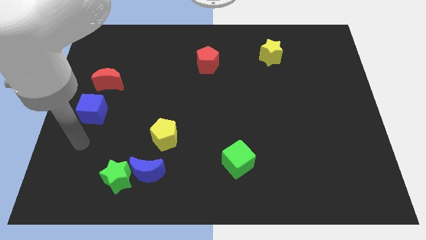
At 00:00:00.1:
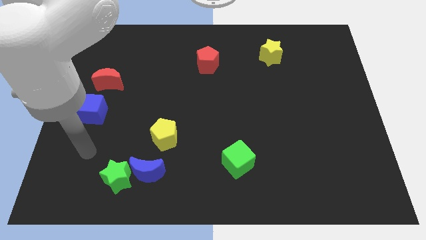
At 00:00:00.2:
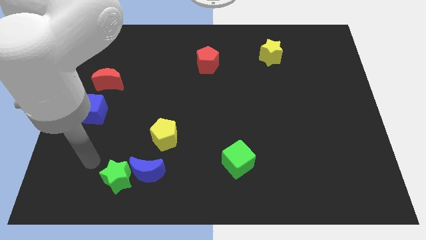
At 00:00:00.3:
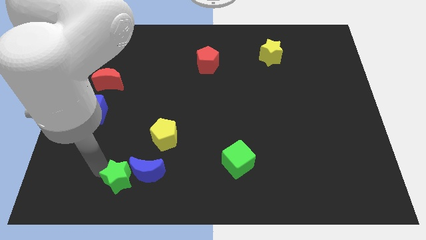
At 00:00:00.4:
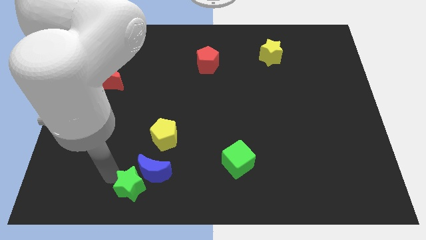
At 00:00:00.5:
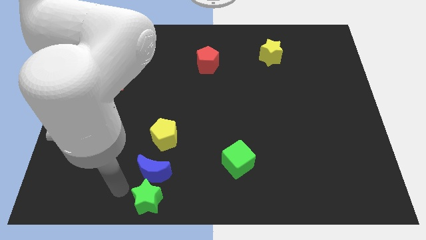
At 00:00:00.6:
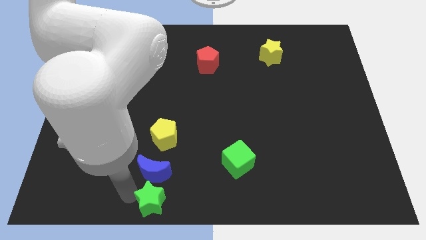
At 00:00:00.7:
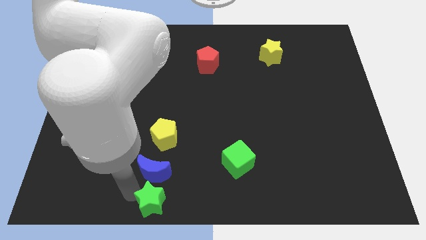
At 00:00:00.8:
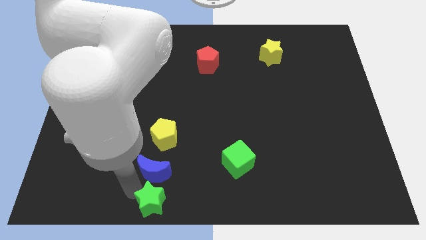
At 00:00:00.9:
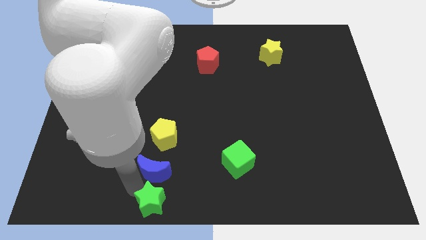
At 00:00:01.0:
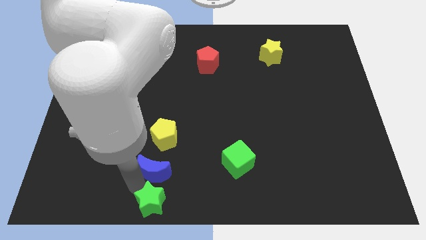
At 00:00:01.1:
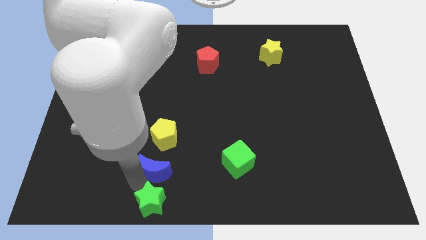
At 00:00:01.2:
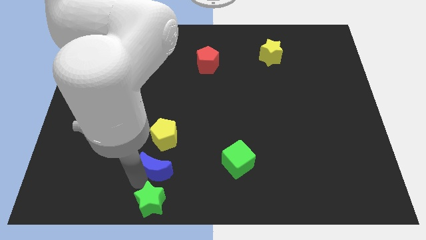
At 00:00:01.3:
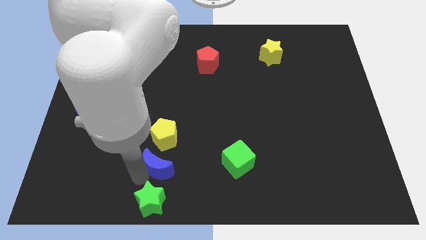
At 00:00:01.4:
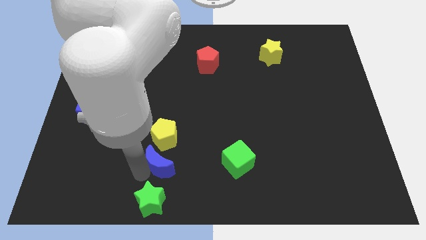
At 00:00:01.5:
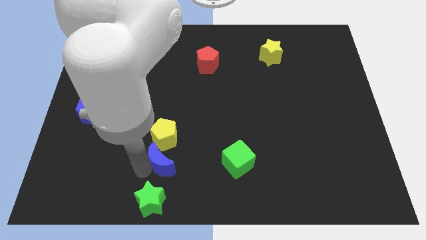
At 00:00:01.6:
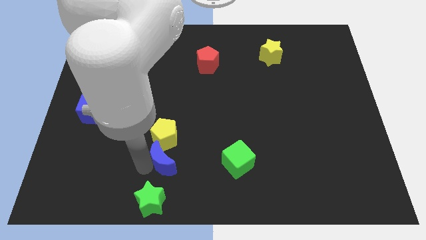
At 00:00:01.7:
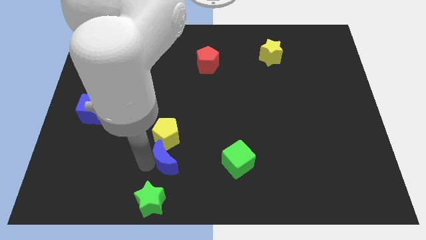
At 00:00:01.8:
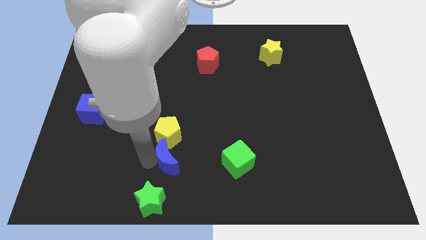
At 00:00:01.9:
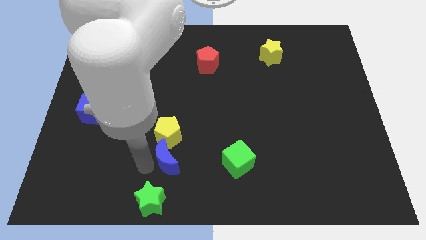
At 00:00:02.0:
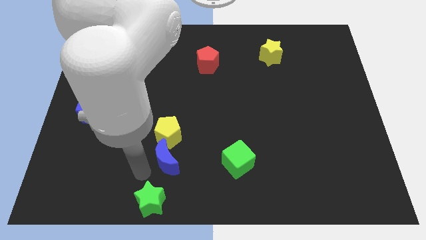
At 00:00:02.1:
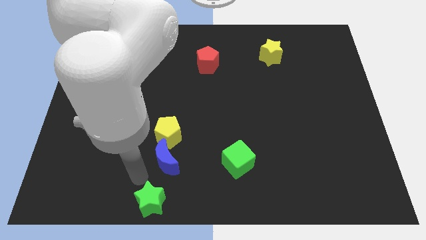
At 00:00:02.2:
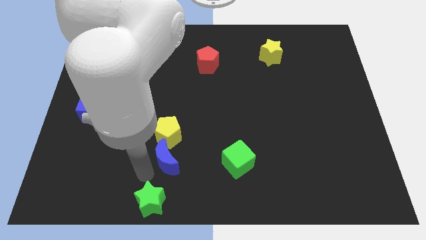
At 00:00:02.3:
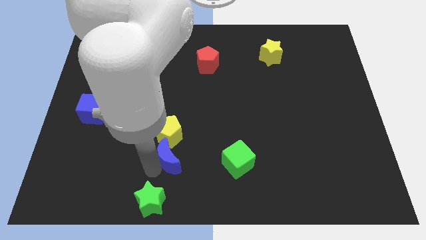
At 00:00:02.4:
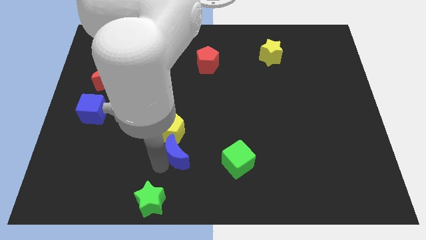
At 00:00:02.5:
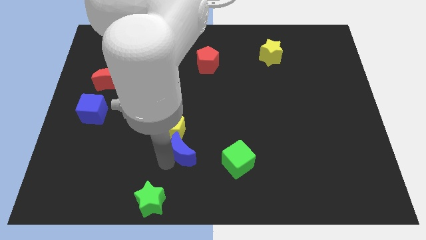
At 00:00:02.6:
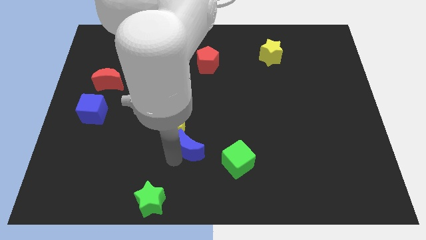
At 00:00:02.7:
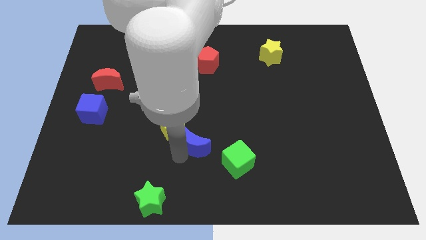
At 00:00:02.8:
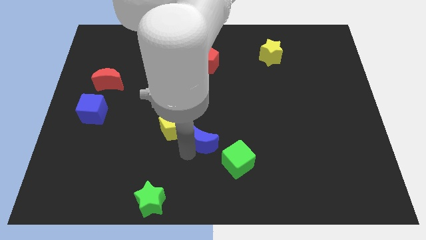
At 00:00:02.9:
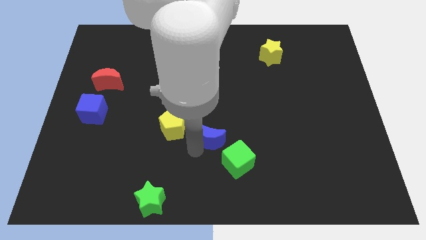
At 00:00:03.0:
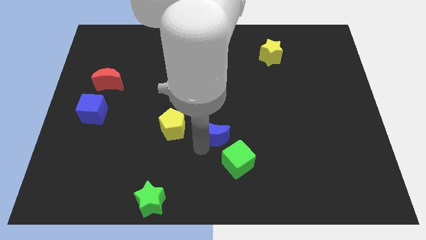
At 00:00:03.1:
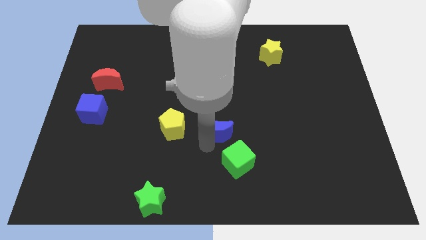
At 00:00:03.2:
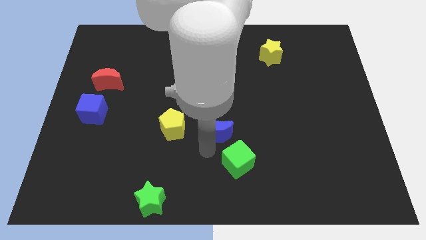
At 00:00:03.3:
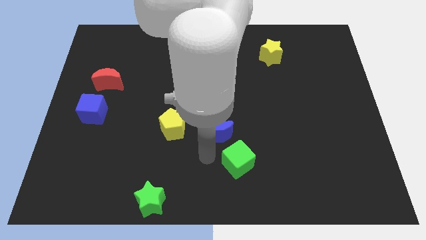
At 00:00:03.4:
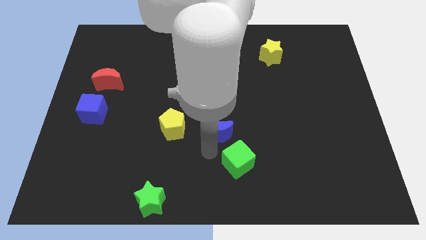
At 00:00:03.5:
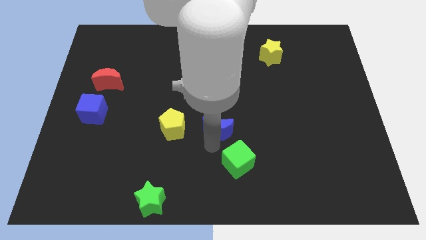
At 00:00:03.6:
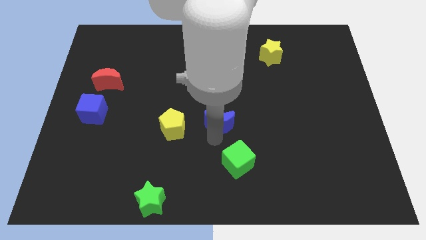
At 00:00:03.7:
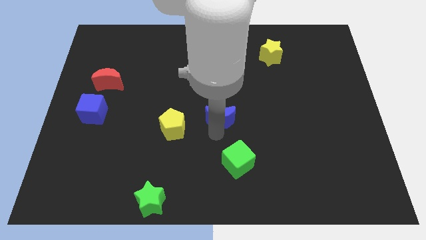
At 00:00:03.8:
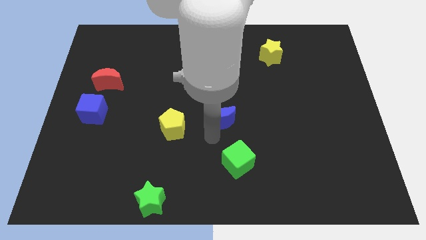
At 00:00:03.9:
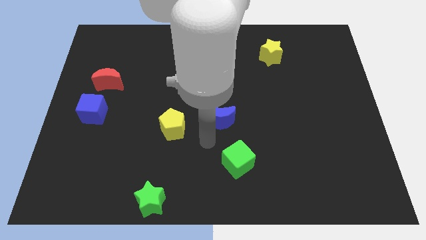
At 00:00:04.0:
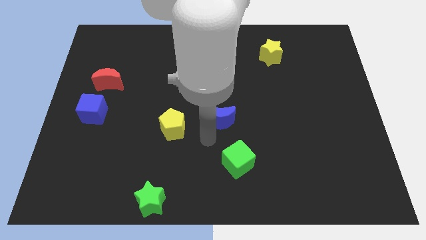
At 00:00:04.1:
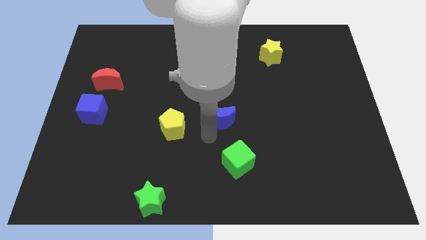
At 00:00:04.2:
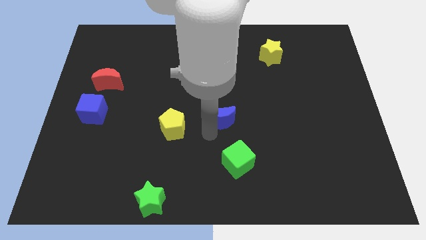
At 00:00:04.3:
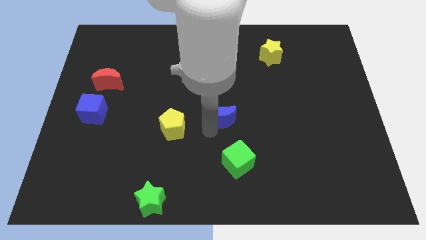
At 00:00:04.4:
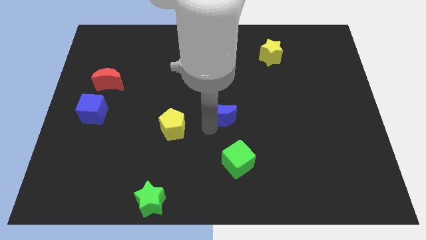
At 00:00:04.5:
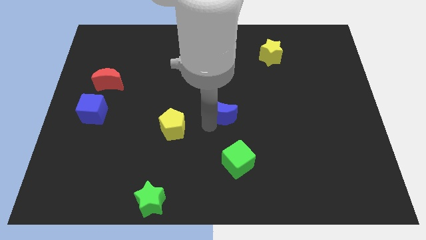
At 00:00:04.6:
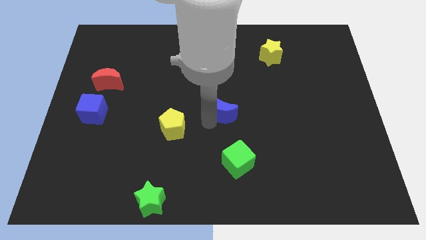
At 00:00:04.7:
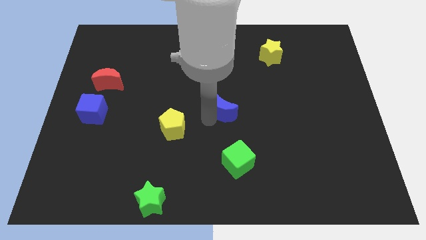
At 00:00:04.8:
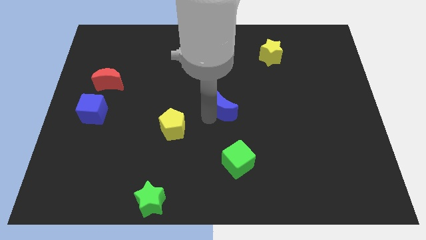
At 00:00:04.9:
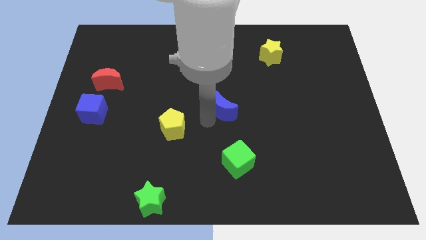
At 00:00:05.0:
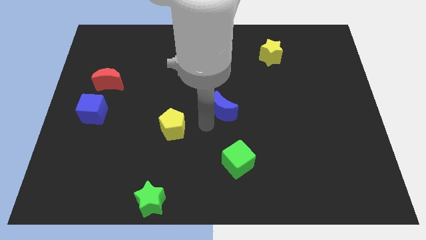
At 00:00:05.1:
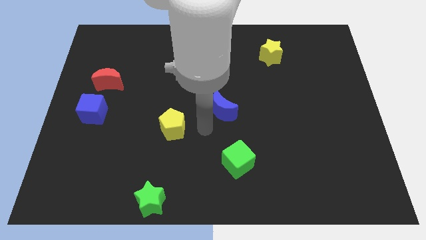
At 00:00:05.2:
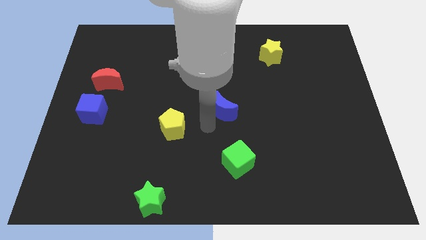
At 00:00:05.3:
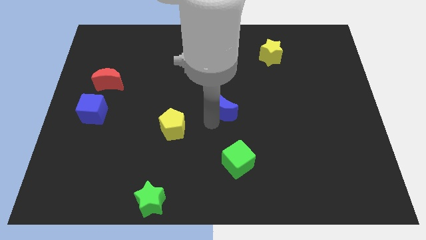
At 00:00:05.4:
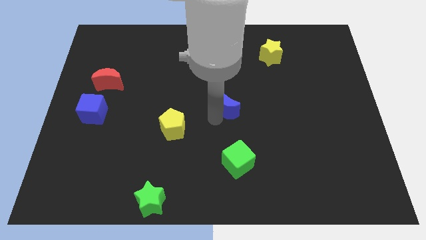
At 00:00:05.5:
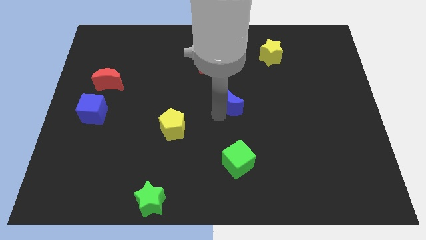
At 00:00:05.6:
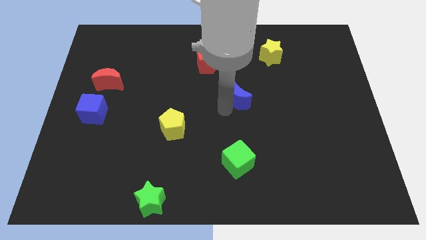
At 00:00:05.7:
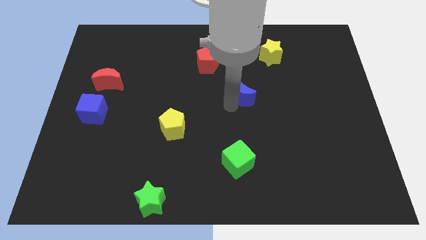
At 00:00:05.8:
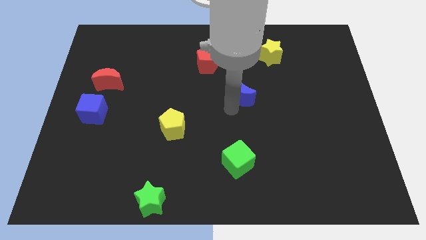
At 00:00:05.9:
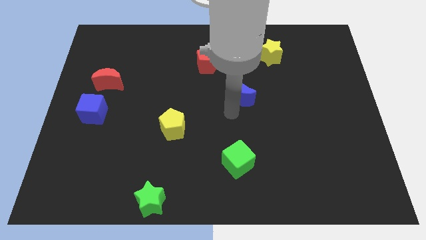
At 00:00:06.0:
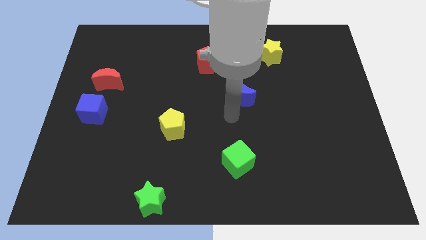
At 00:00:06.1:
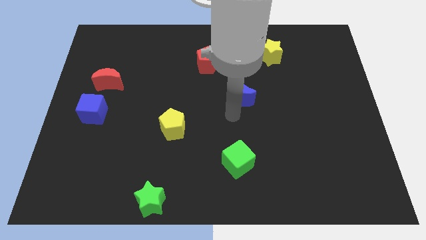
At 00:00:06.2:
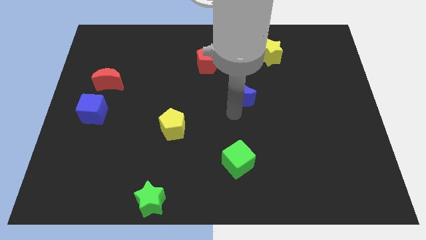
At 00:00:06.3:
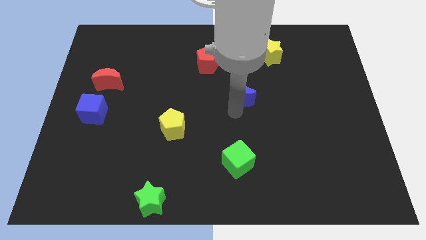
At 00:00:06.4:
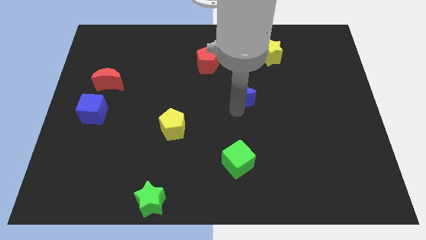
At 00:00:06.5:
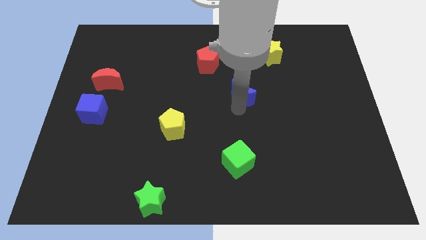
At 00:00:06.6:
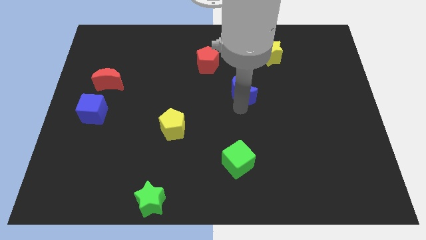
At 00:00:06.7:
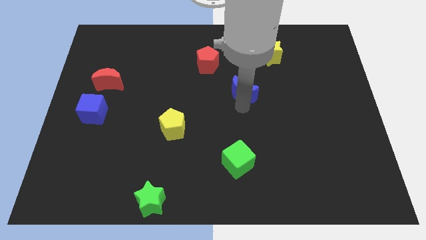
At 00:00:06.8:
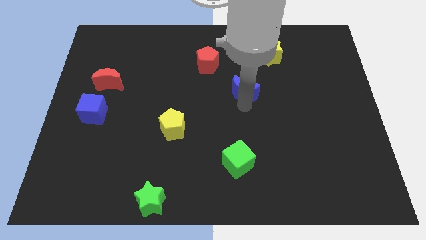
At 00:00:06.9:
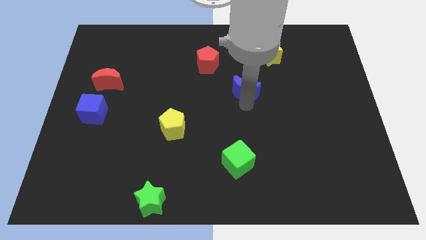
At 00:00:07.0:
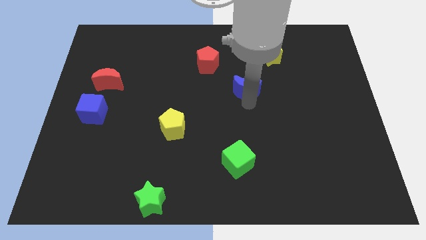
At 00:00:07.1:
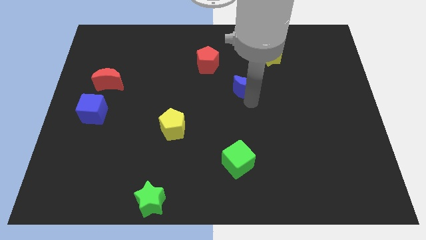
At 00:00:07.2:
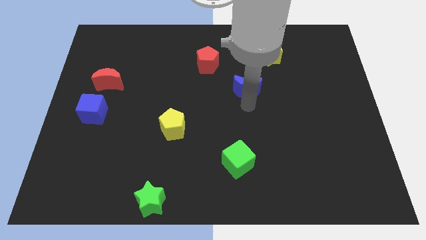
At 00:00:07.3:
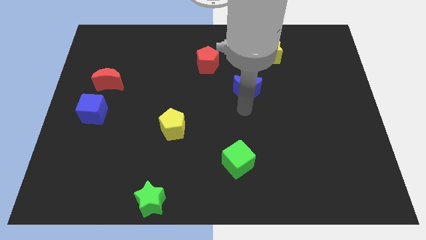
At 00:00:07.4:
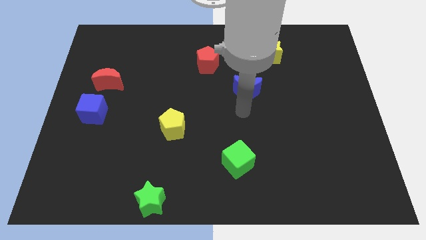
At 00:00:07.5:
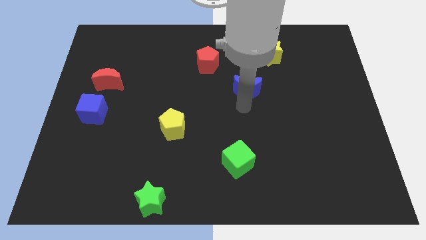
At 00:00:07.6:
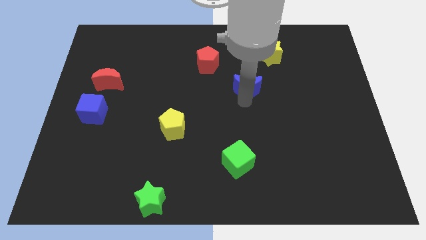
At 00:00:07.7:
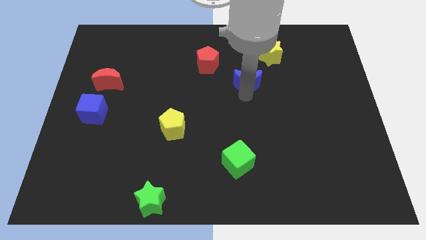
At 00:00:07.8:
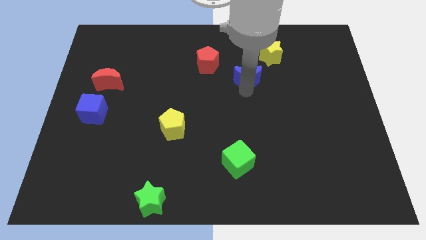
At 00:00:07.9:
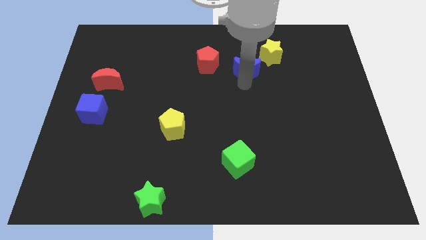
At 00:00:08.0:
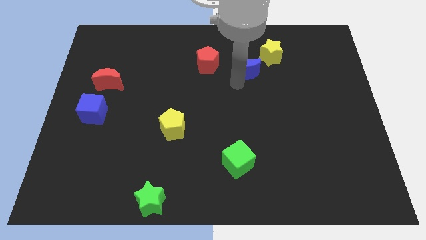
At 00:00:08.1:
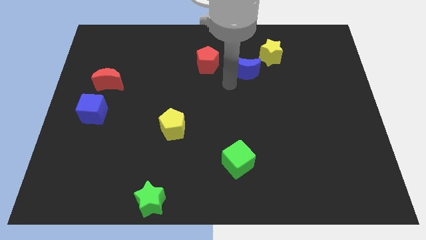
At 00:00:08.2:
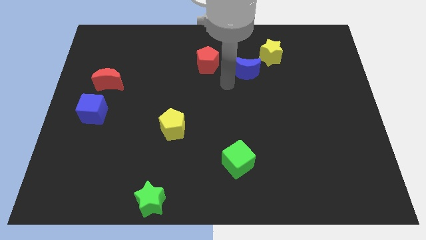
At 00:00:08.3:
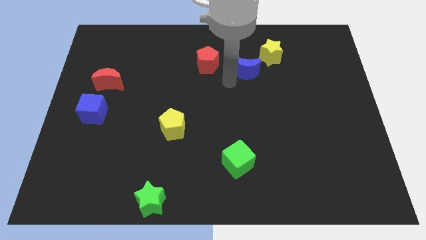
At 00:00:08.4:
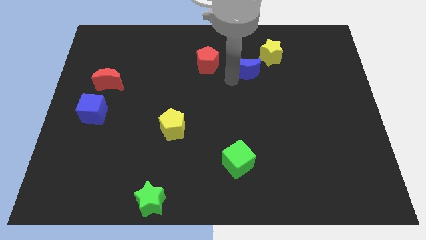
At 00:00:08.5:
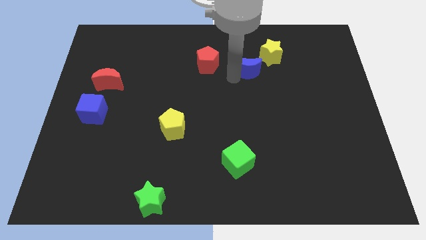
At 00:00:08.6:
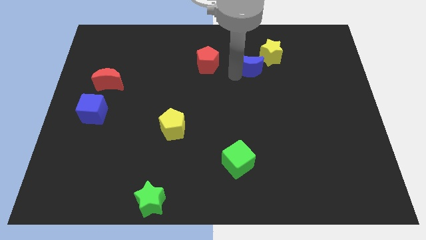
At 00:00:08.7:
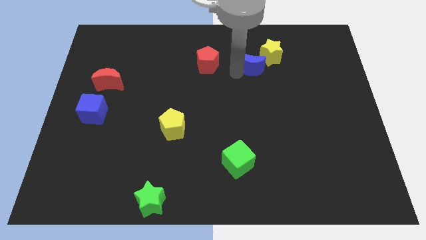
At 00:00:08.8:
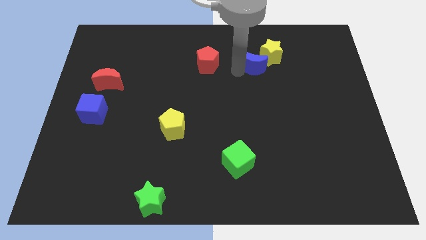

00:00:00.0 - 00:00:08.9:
move the blue moon to the yellow star
